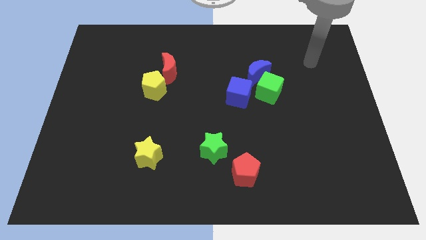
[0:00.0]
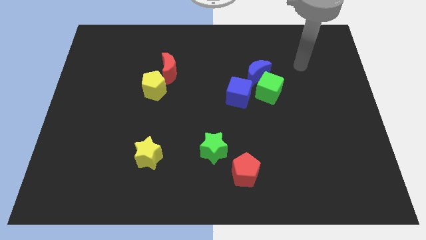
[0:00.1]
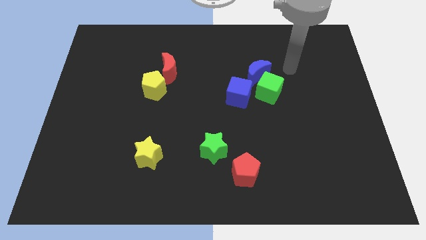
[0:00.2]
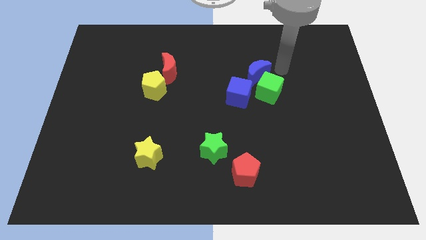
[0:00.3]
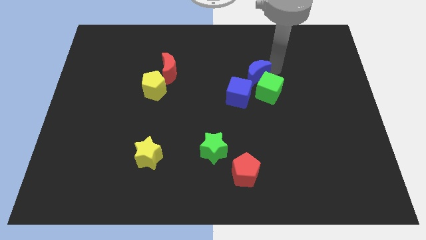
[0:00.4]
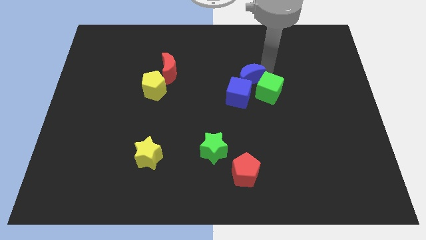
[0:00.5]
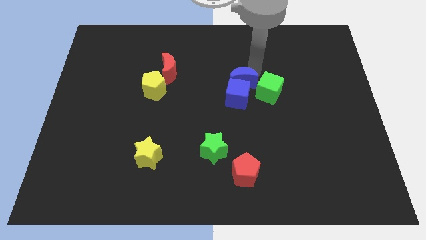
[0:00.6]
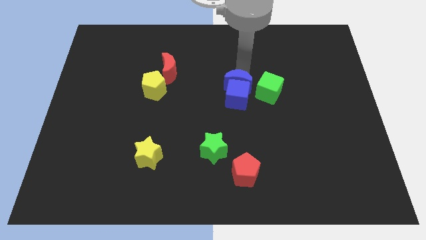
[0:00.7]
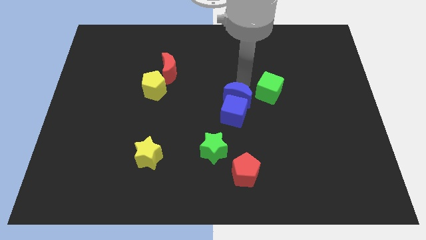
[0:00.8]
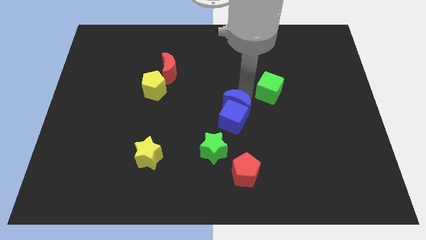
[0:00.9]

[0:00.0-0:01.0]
pull the green cube apart from the blue moon and blue cube

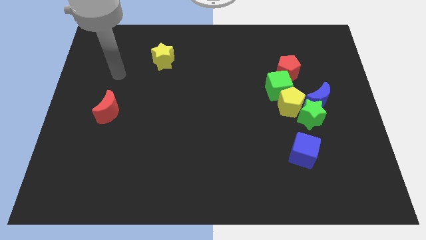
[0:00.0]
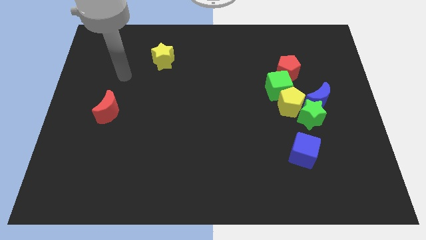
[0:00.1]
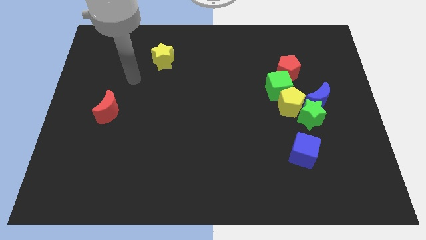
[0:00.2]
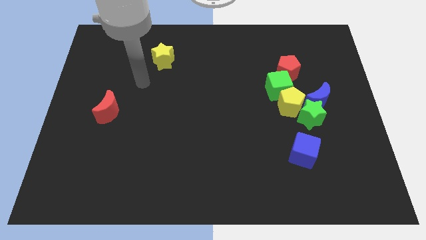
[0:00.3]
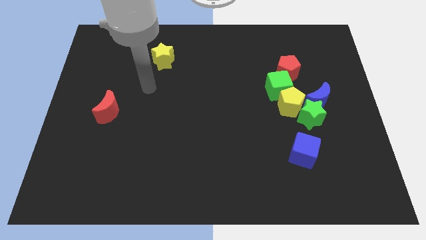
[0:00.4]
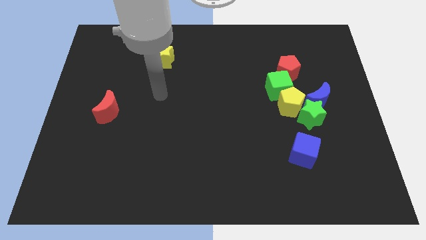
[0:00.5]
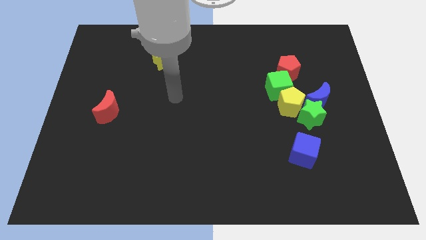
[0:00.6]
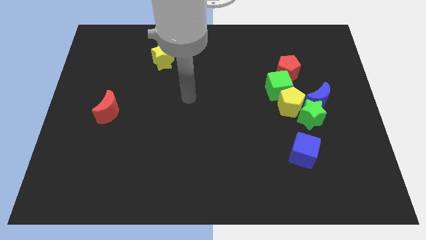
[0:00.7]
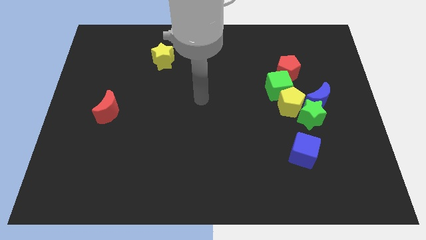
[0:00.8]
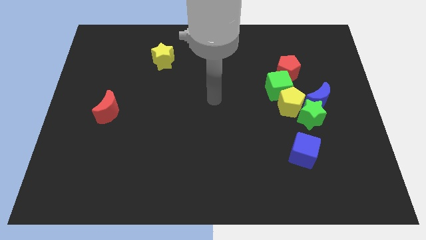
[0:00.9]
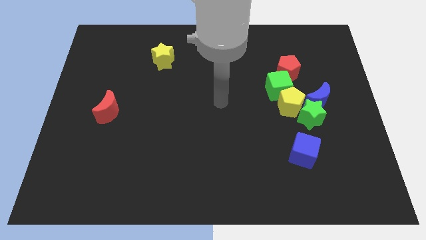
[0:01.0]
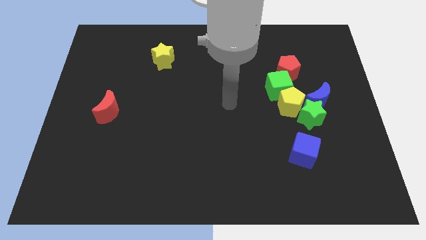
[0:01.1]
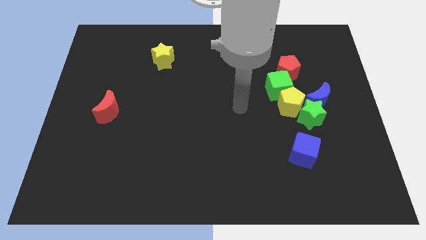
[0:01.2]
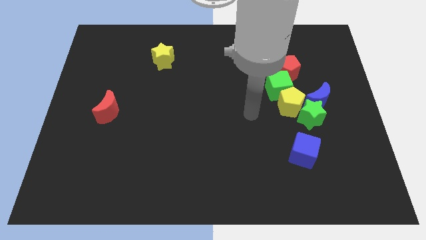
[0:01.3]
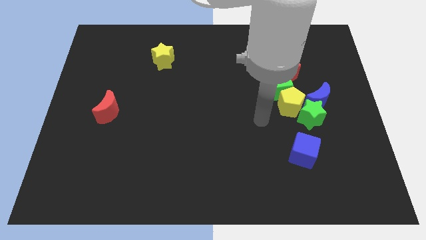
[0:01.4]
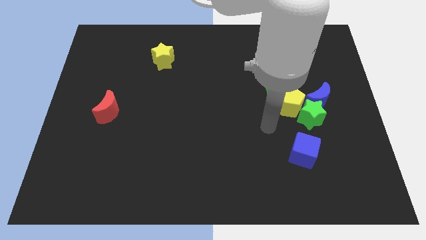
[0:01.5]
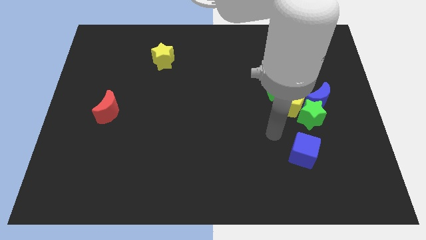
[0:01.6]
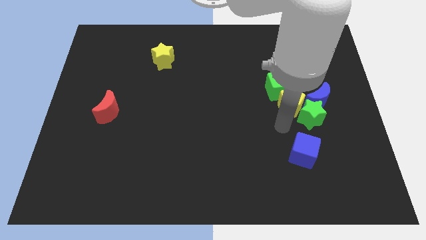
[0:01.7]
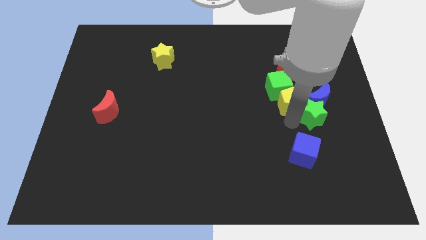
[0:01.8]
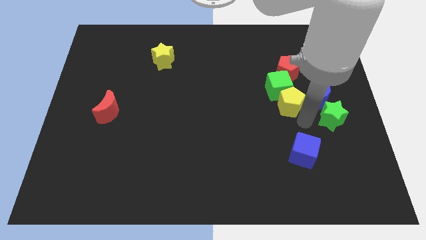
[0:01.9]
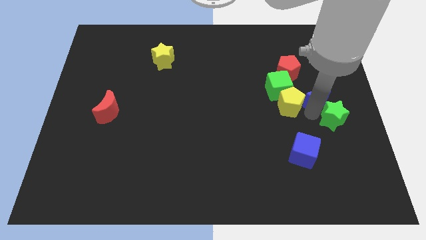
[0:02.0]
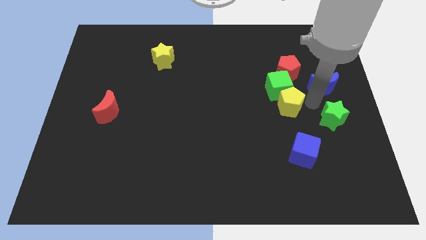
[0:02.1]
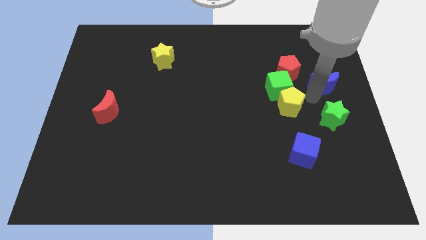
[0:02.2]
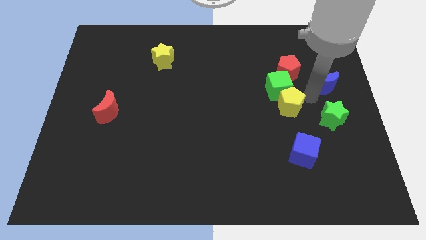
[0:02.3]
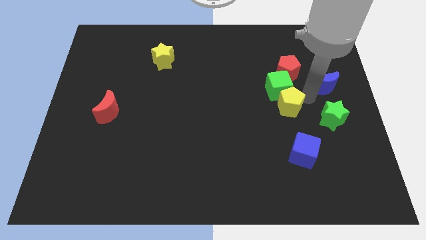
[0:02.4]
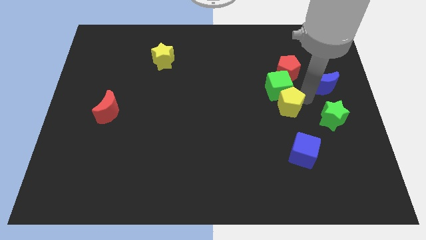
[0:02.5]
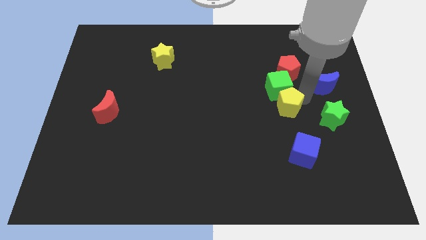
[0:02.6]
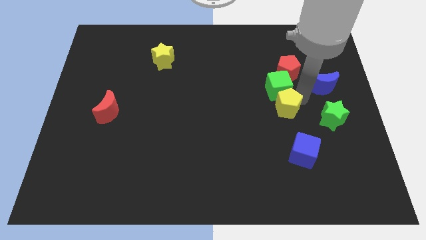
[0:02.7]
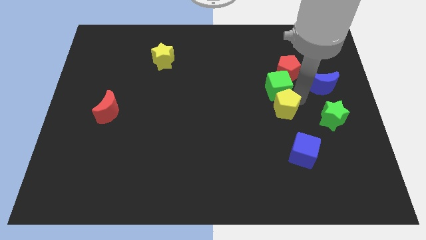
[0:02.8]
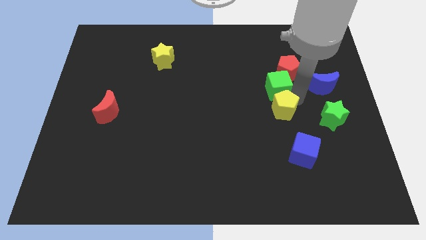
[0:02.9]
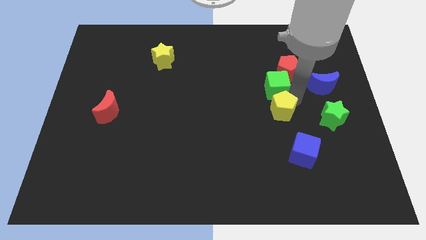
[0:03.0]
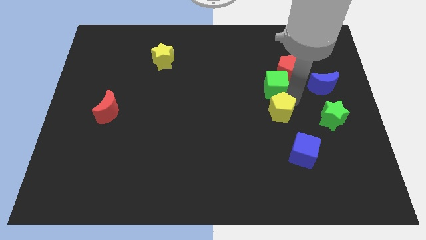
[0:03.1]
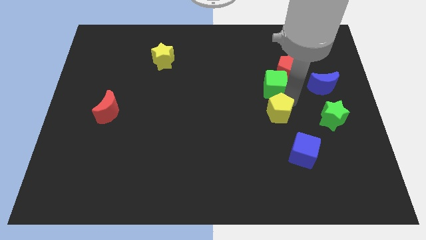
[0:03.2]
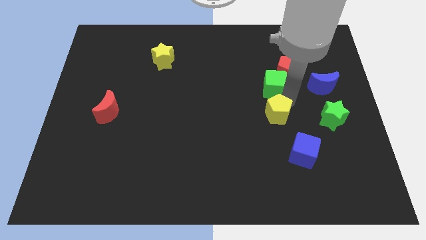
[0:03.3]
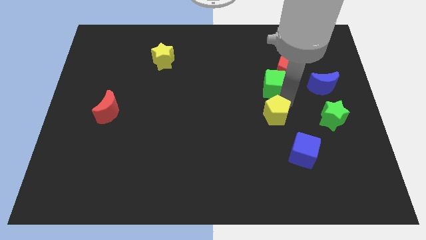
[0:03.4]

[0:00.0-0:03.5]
move the yellow pentagon away from the group

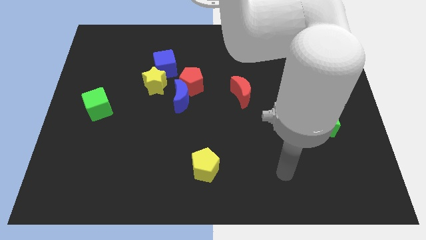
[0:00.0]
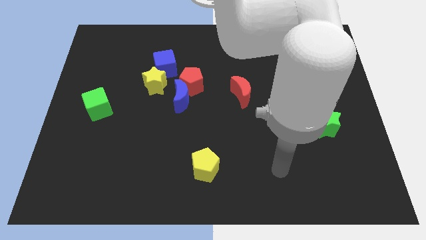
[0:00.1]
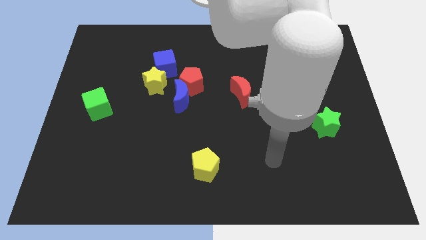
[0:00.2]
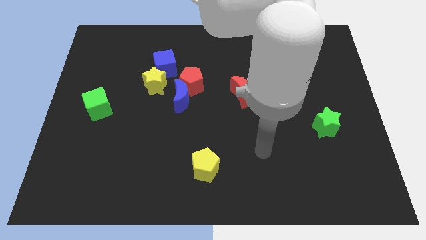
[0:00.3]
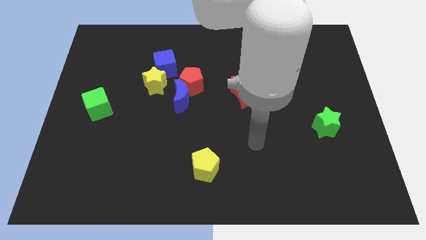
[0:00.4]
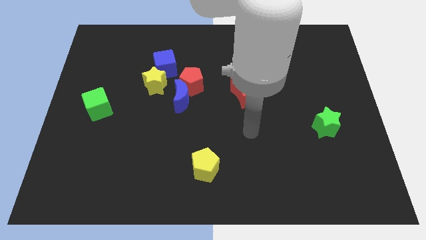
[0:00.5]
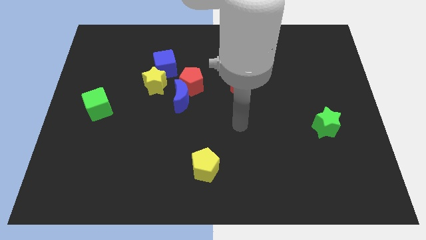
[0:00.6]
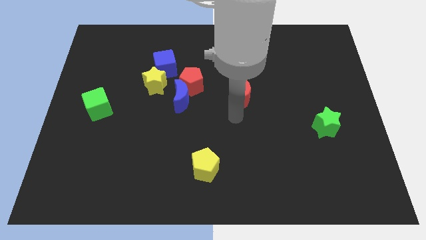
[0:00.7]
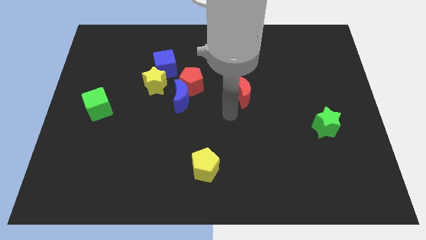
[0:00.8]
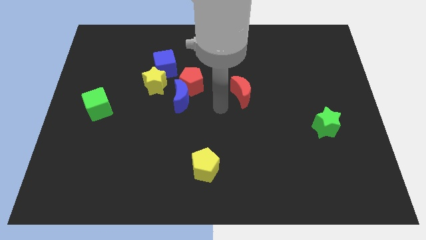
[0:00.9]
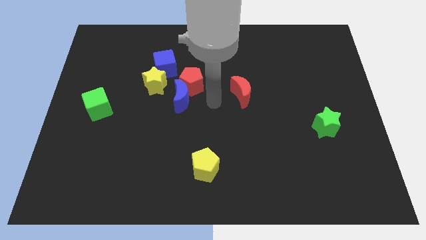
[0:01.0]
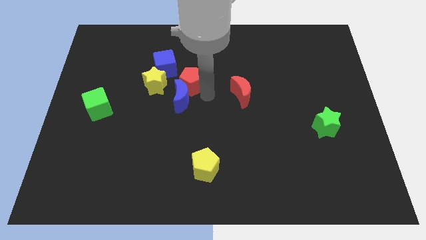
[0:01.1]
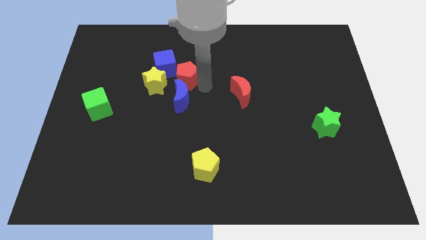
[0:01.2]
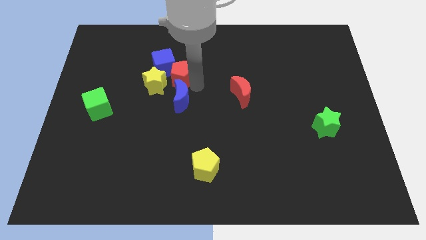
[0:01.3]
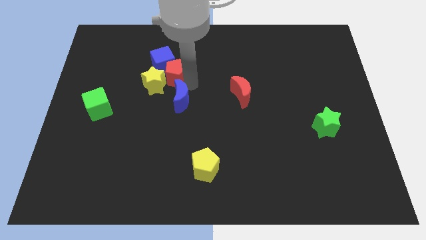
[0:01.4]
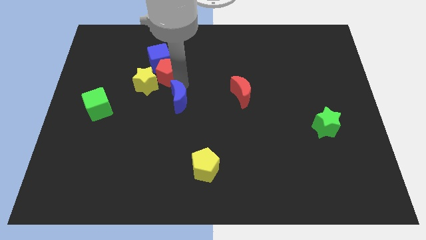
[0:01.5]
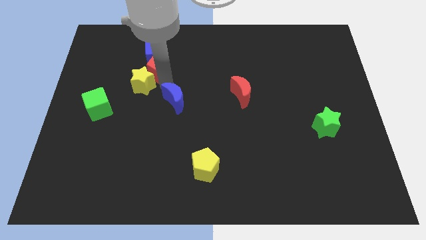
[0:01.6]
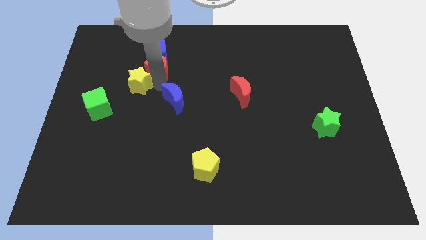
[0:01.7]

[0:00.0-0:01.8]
pull the blue moon apart from the red pentagon and yellow star

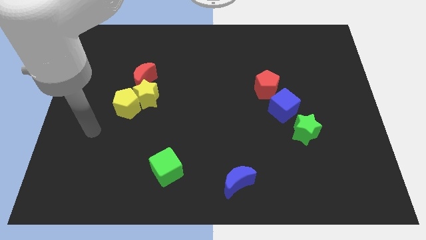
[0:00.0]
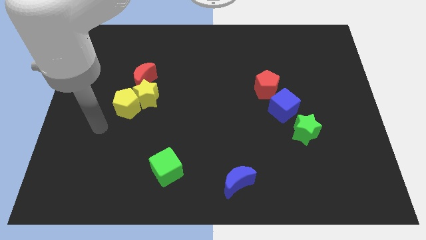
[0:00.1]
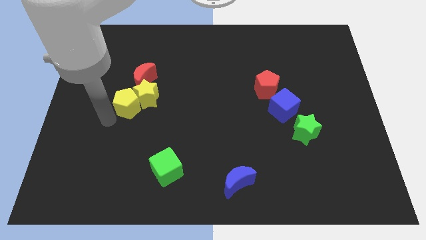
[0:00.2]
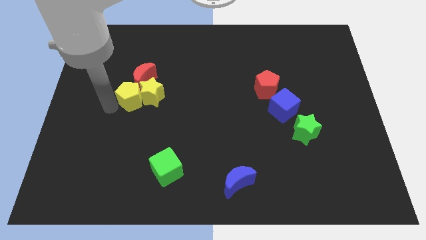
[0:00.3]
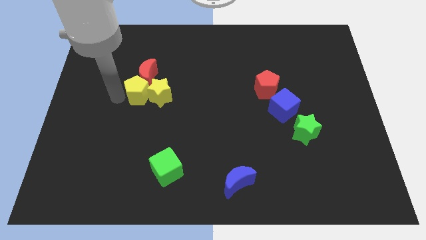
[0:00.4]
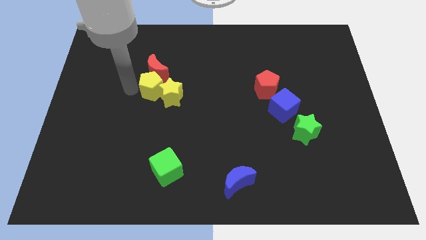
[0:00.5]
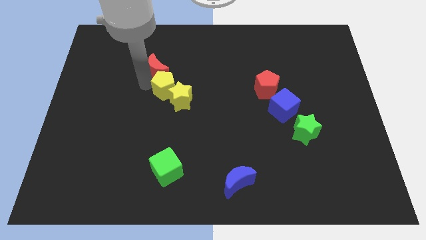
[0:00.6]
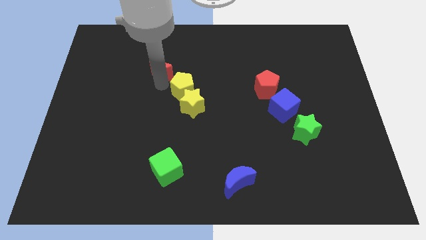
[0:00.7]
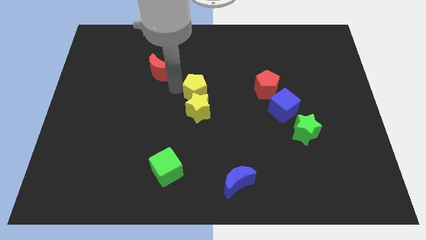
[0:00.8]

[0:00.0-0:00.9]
separate the yellow star from the yellow pentagon and red moon

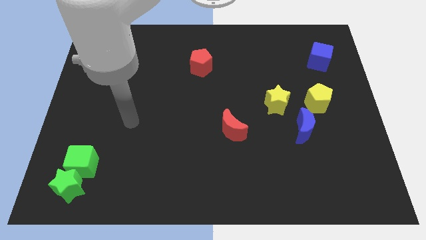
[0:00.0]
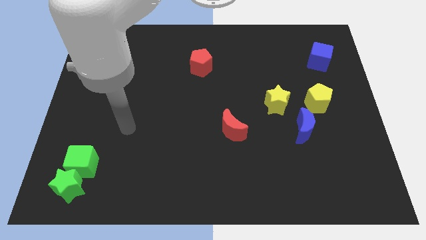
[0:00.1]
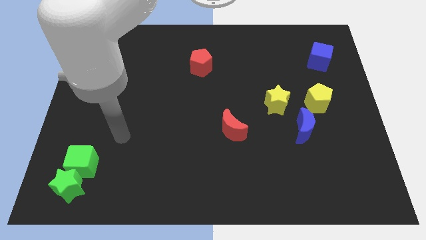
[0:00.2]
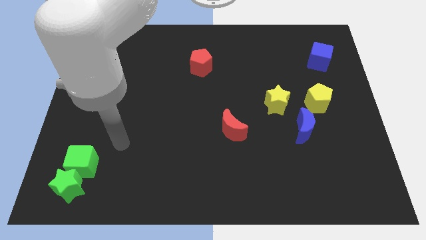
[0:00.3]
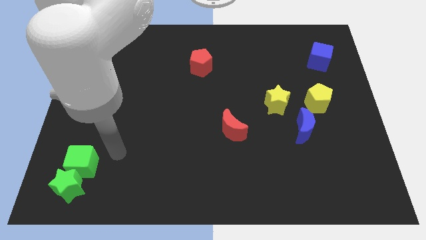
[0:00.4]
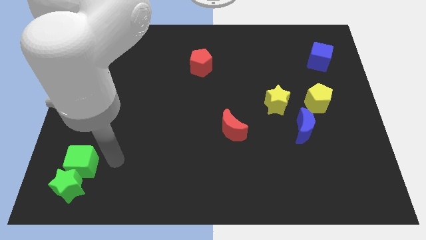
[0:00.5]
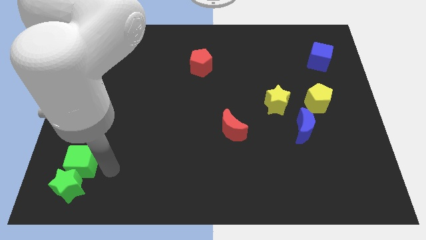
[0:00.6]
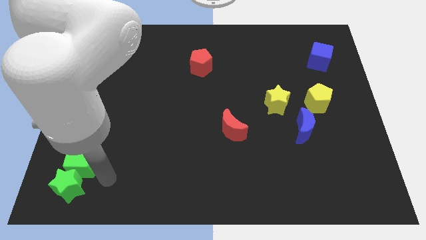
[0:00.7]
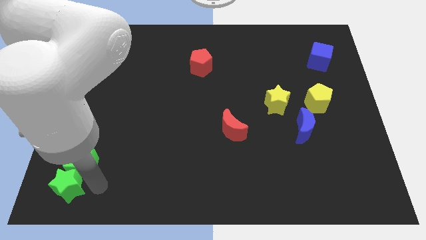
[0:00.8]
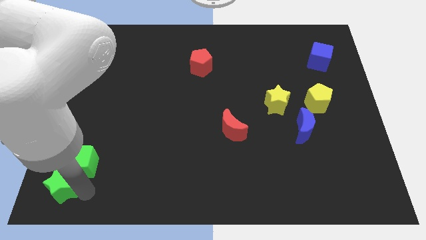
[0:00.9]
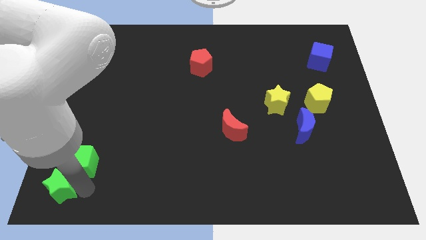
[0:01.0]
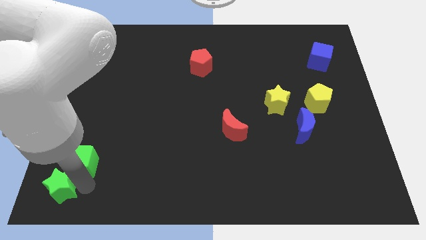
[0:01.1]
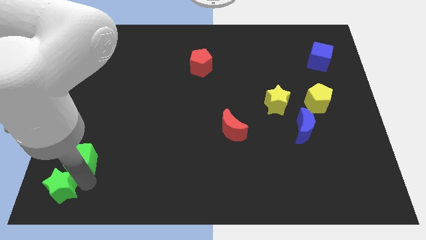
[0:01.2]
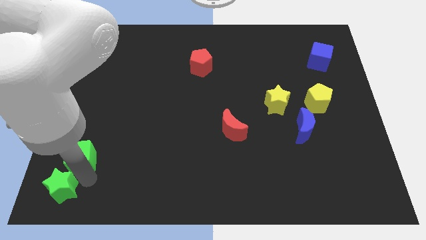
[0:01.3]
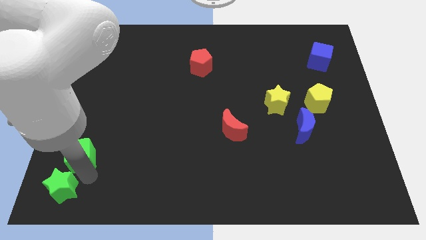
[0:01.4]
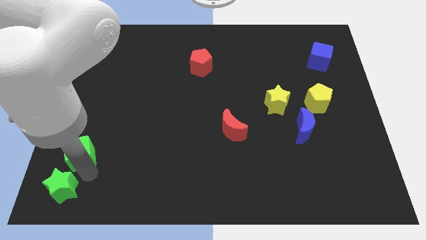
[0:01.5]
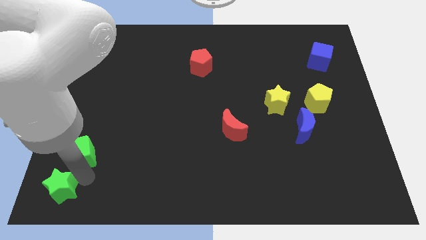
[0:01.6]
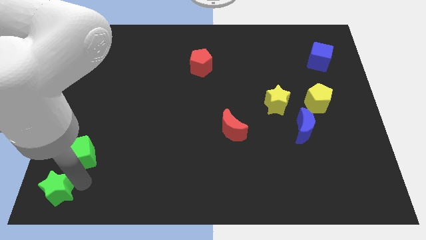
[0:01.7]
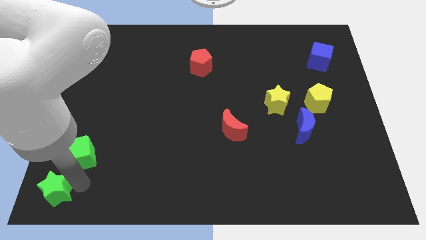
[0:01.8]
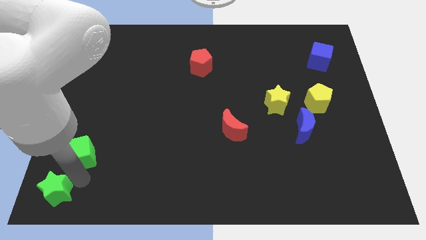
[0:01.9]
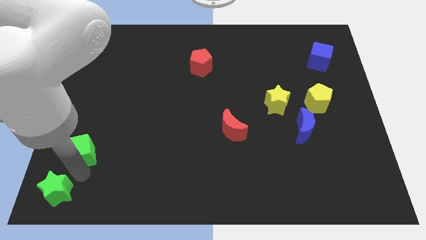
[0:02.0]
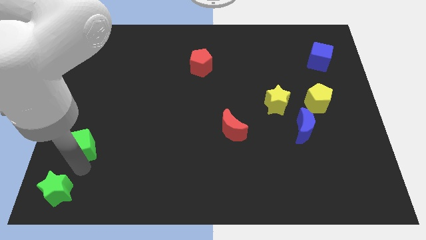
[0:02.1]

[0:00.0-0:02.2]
pull the green cube apart from the green star
